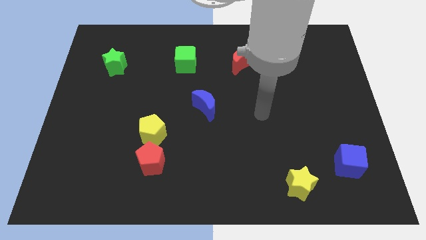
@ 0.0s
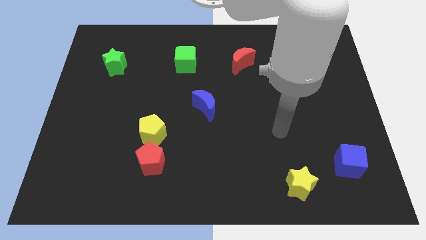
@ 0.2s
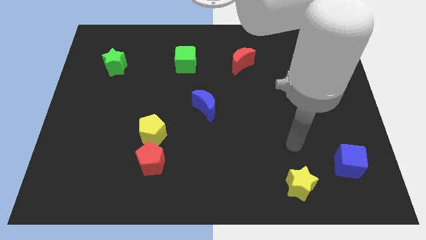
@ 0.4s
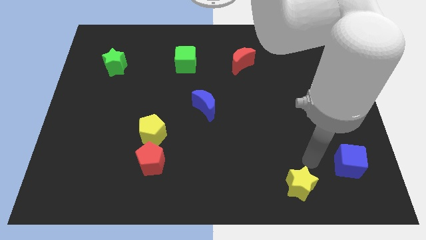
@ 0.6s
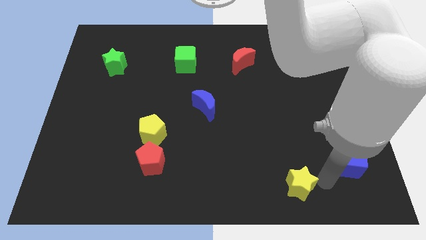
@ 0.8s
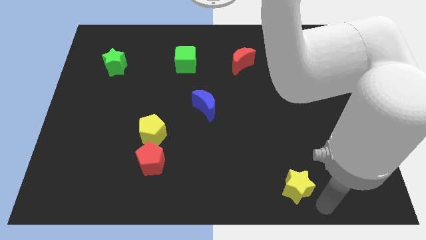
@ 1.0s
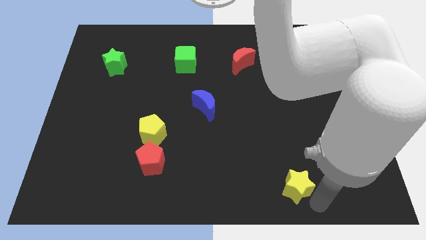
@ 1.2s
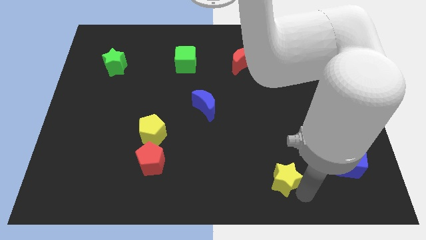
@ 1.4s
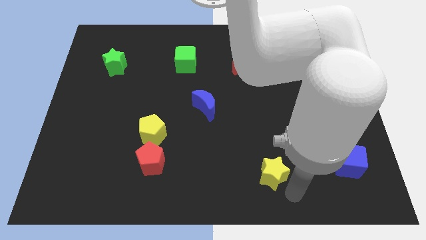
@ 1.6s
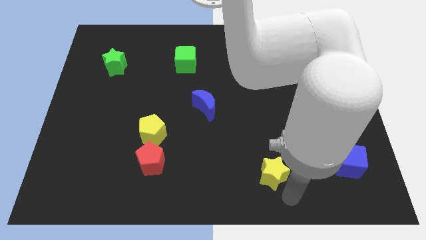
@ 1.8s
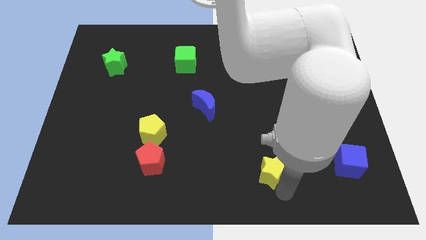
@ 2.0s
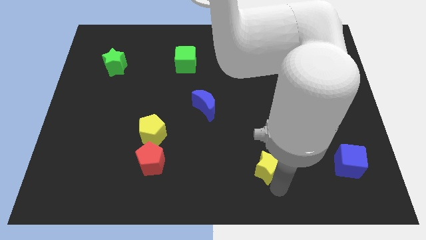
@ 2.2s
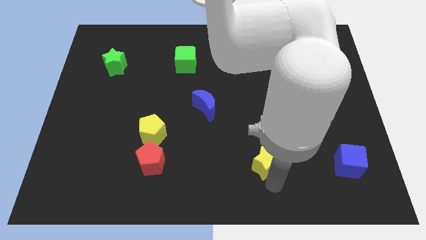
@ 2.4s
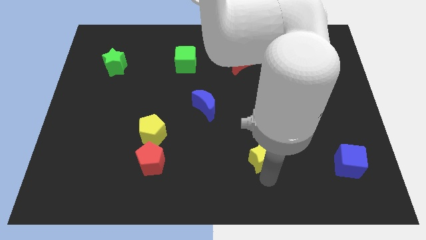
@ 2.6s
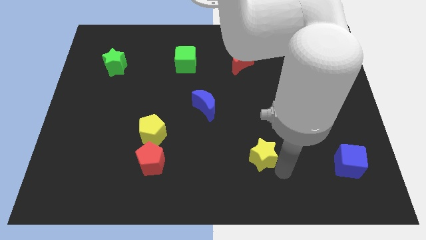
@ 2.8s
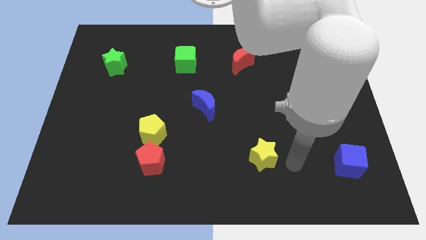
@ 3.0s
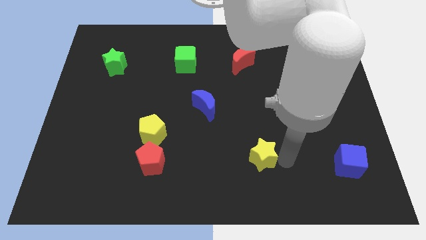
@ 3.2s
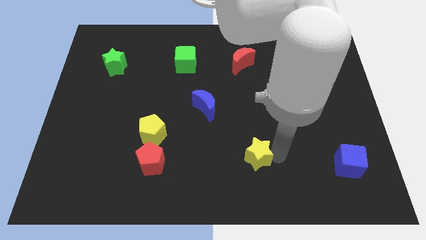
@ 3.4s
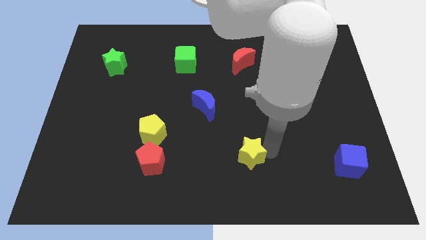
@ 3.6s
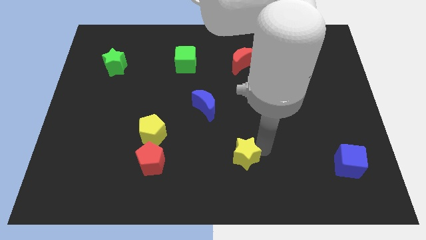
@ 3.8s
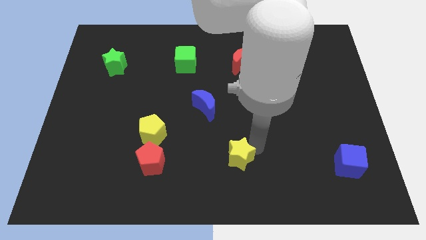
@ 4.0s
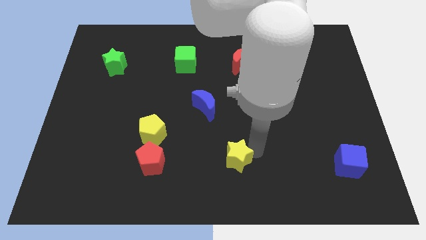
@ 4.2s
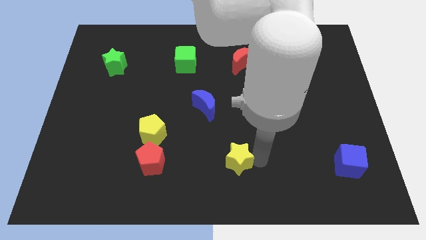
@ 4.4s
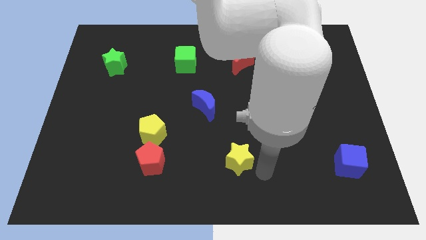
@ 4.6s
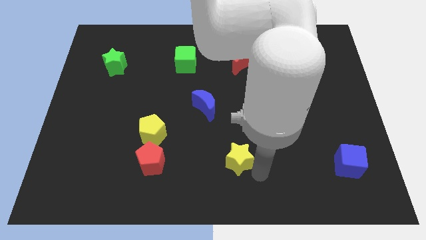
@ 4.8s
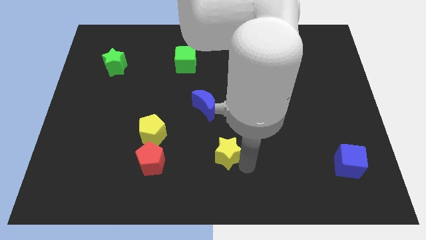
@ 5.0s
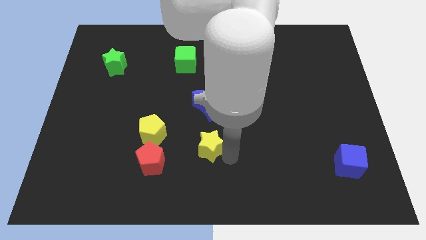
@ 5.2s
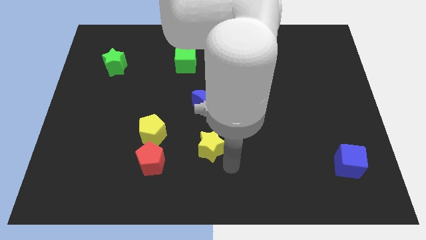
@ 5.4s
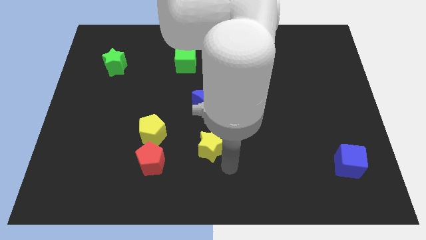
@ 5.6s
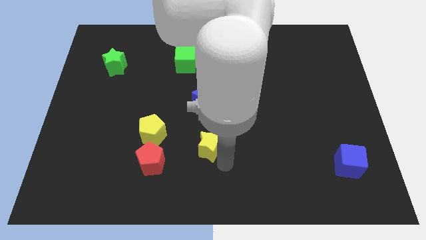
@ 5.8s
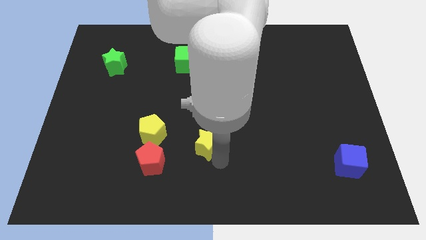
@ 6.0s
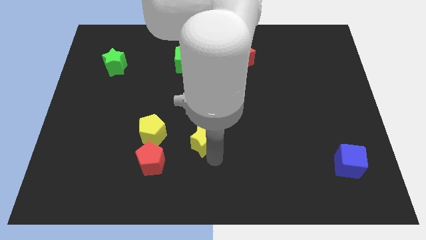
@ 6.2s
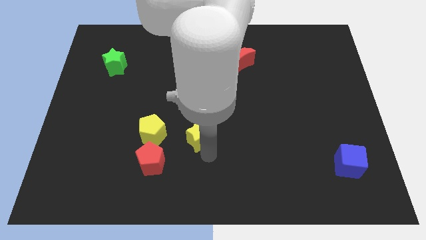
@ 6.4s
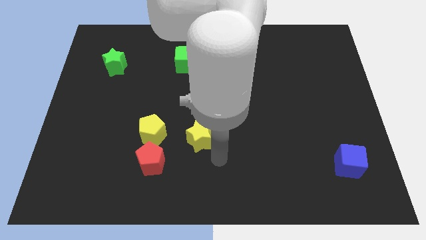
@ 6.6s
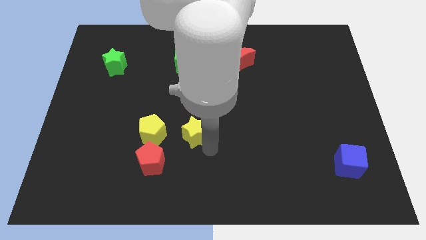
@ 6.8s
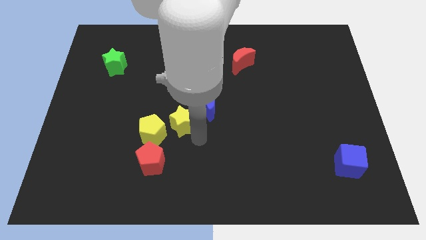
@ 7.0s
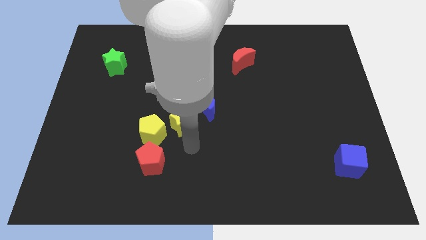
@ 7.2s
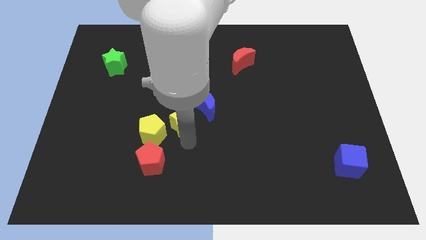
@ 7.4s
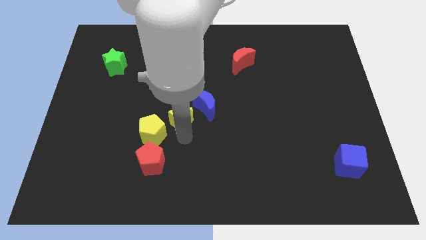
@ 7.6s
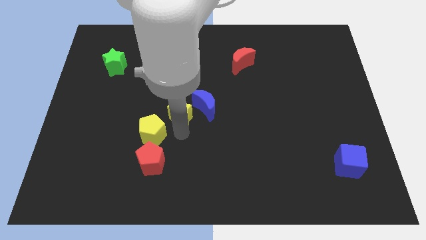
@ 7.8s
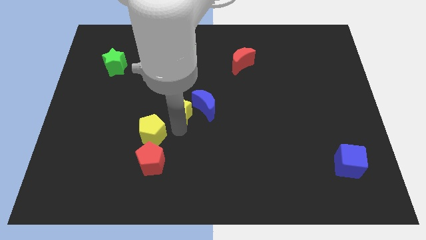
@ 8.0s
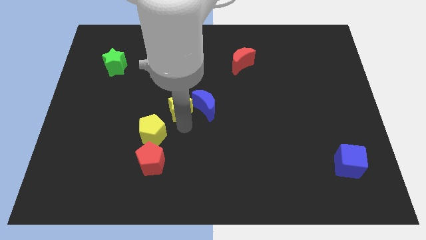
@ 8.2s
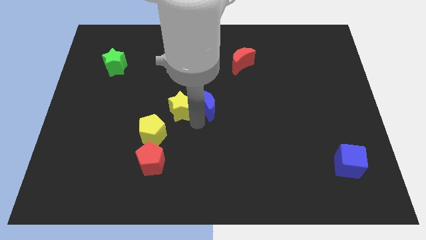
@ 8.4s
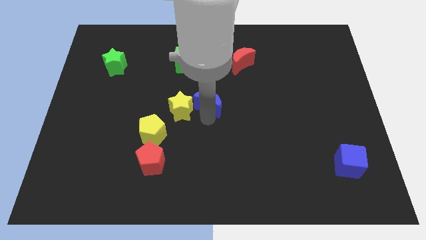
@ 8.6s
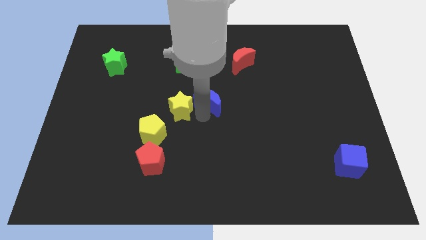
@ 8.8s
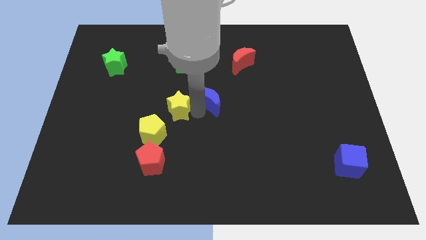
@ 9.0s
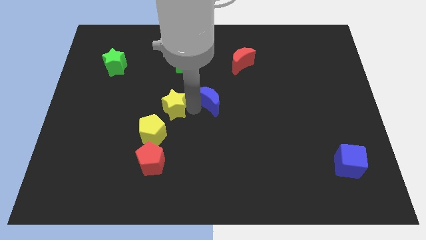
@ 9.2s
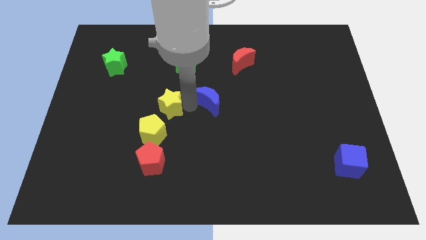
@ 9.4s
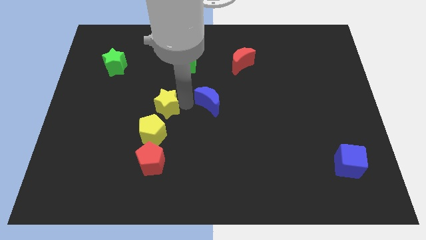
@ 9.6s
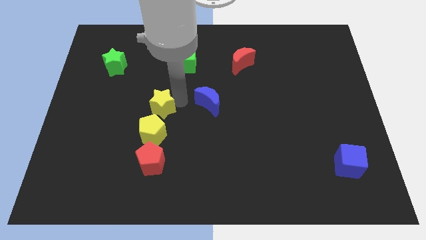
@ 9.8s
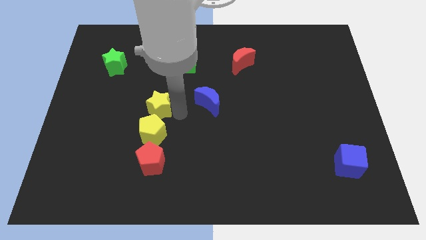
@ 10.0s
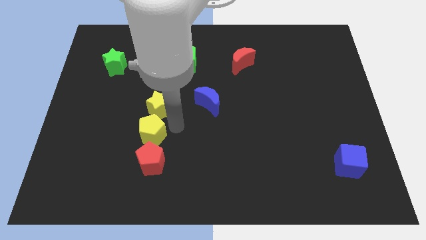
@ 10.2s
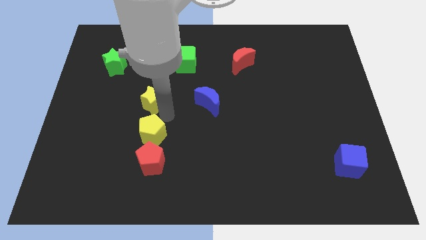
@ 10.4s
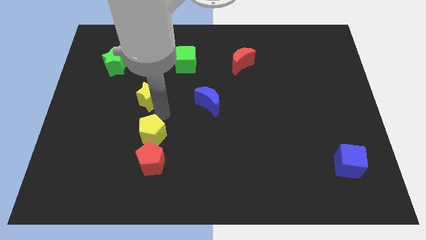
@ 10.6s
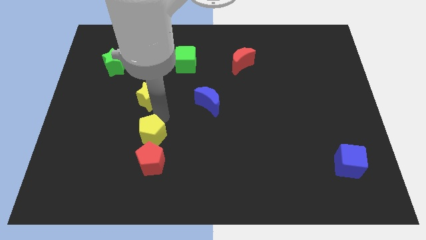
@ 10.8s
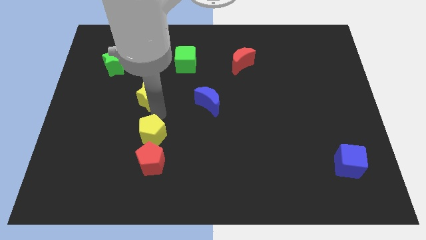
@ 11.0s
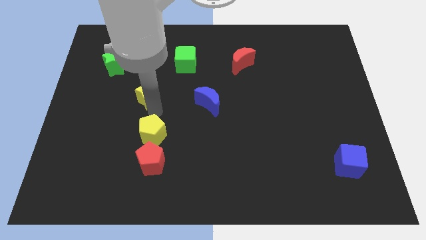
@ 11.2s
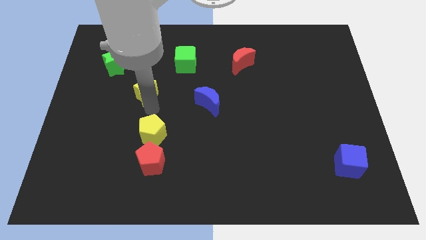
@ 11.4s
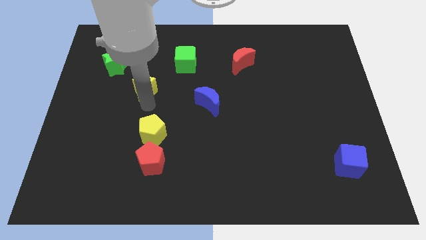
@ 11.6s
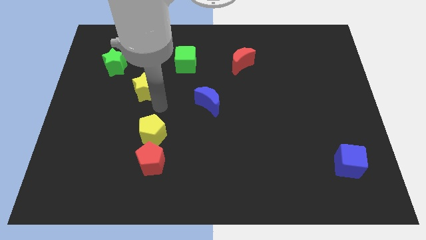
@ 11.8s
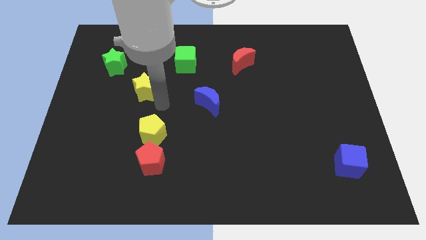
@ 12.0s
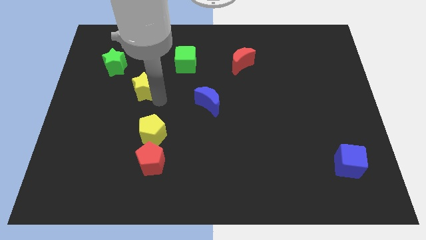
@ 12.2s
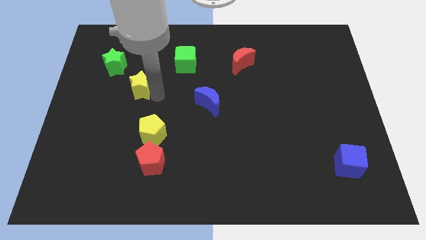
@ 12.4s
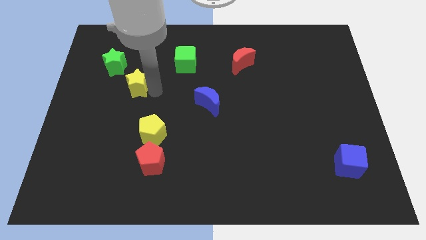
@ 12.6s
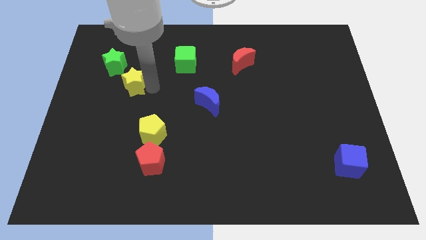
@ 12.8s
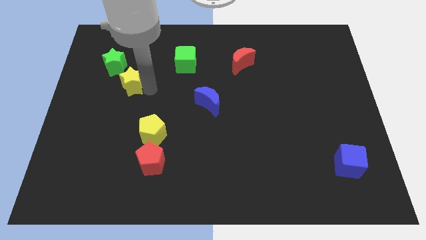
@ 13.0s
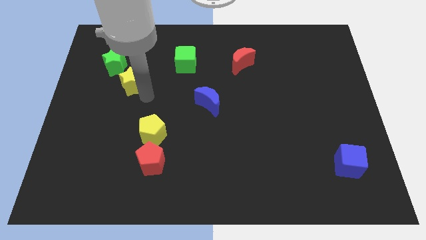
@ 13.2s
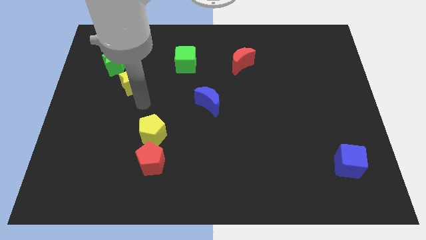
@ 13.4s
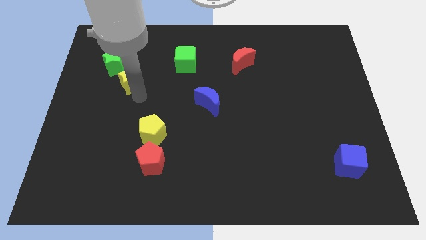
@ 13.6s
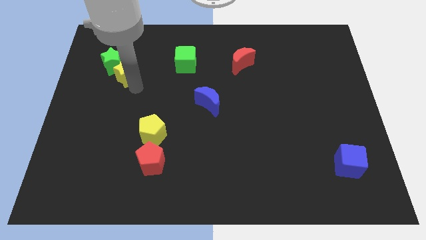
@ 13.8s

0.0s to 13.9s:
put the yellow star to the green star
